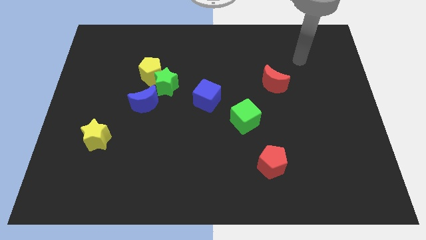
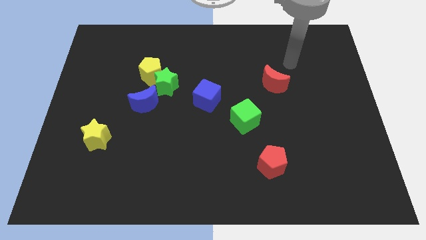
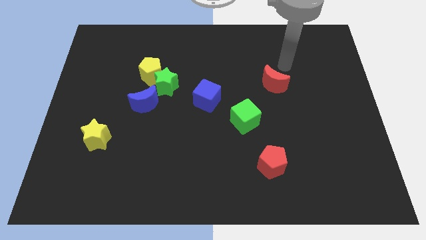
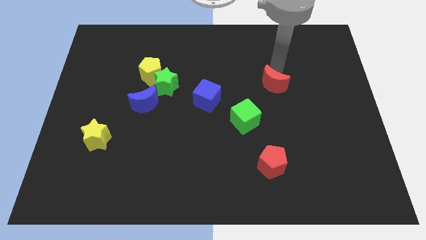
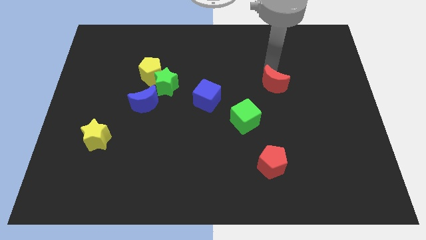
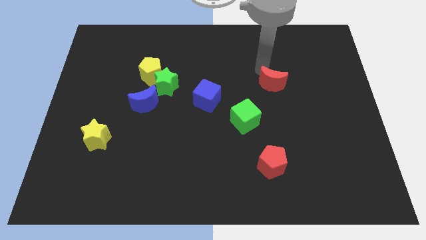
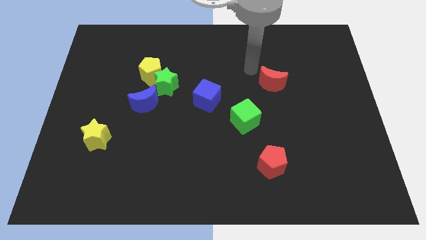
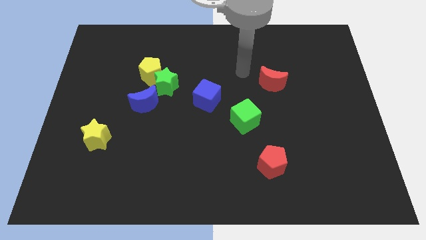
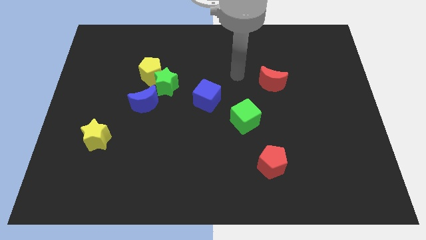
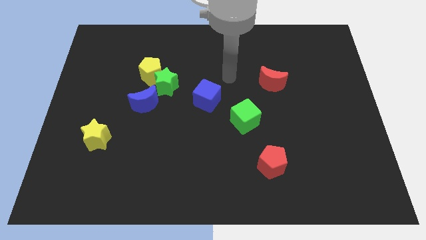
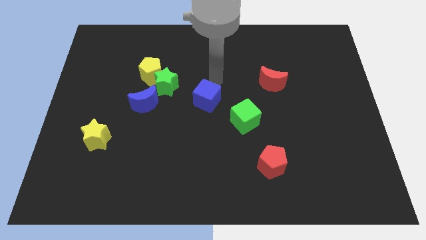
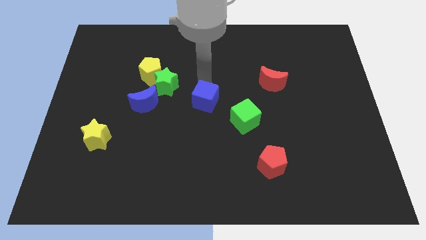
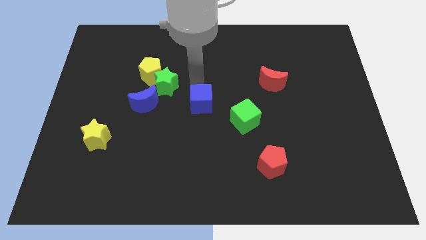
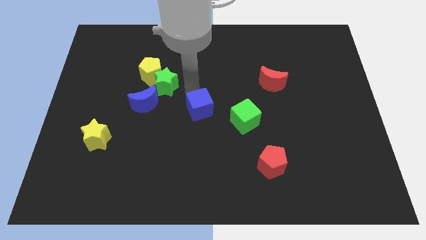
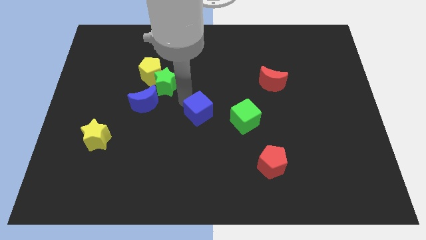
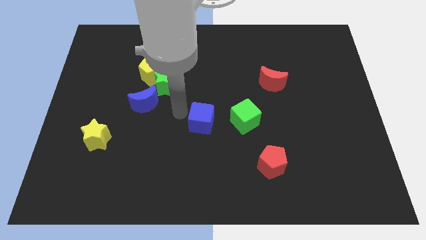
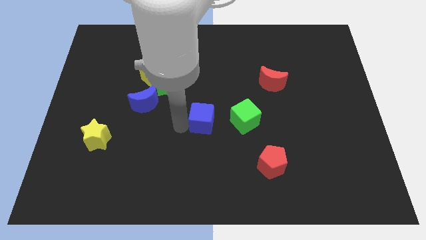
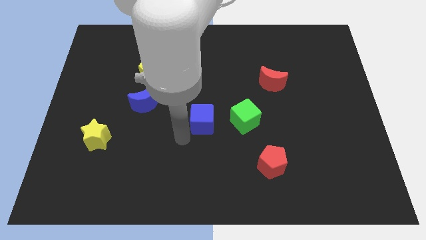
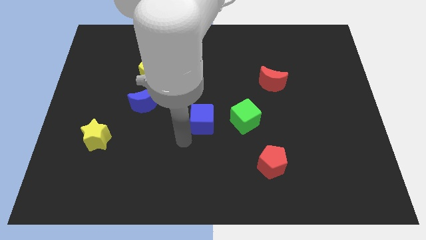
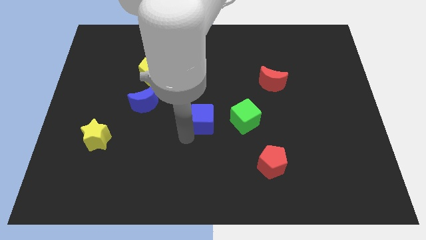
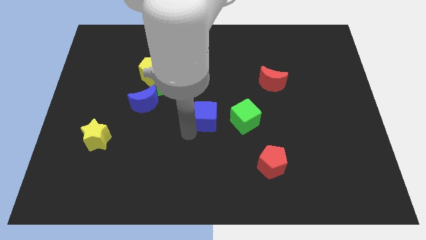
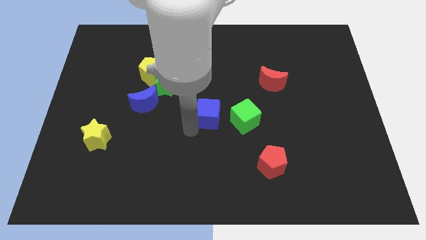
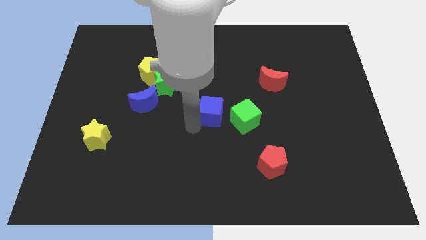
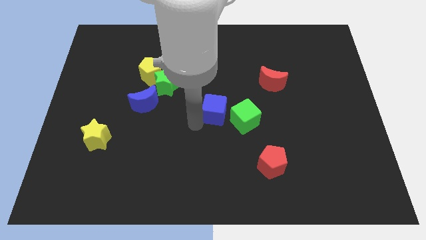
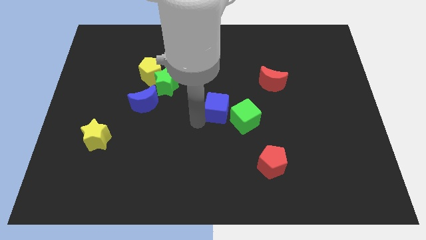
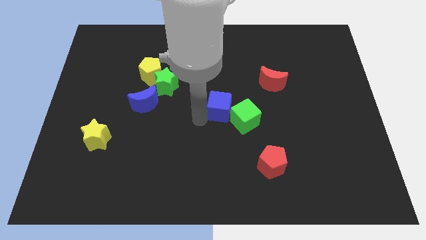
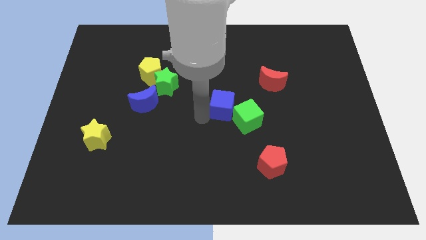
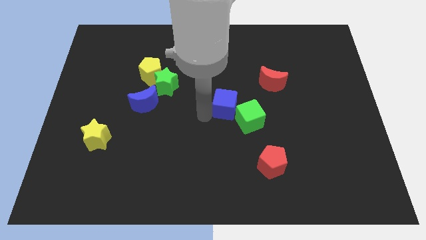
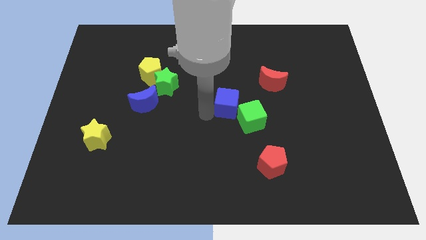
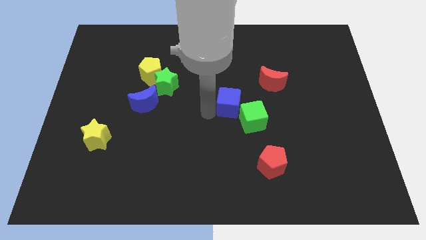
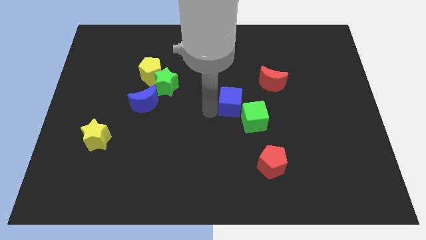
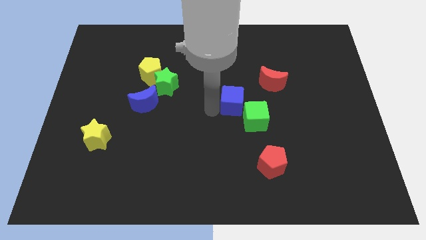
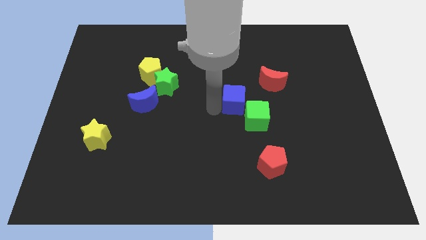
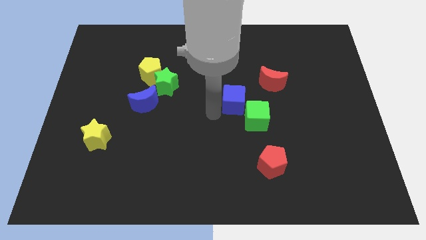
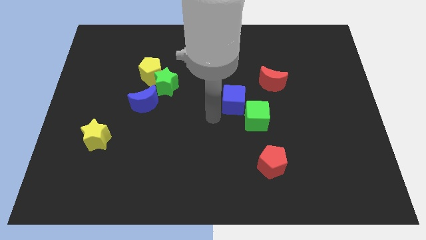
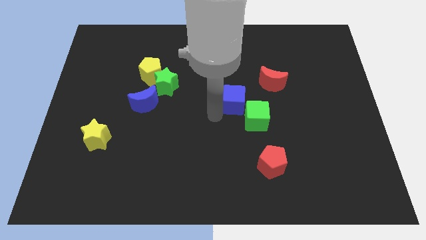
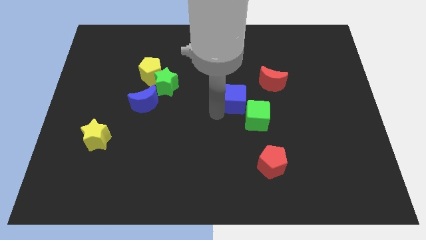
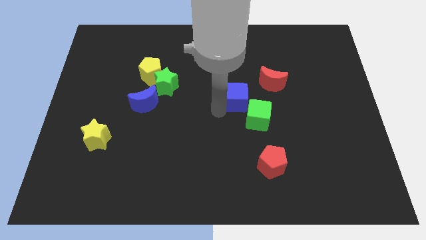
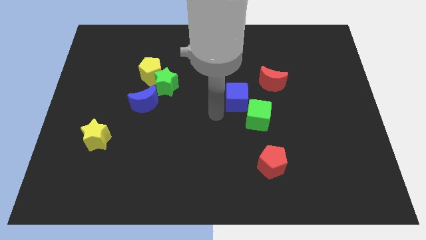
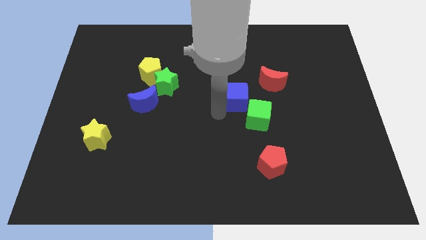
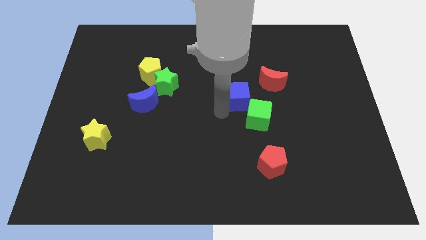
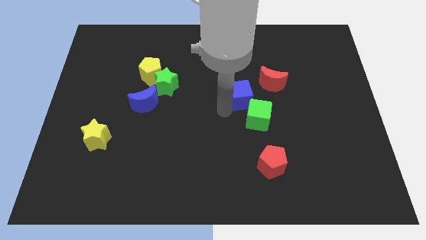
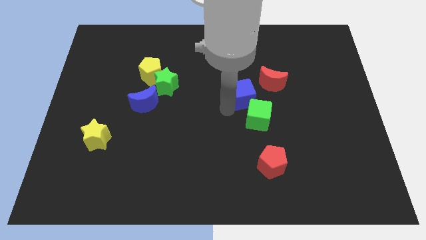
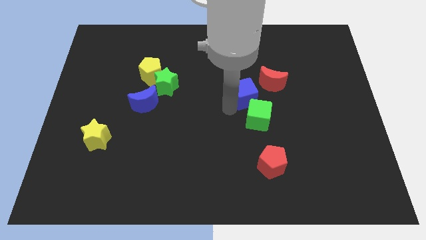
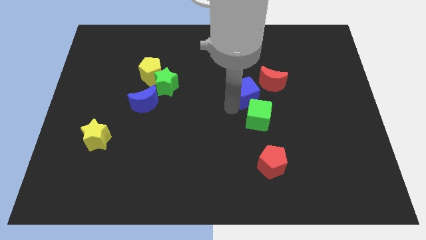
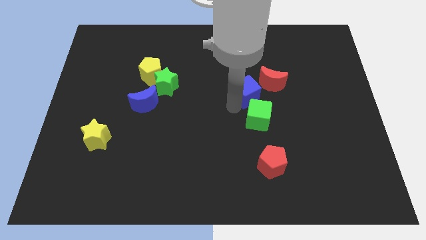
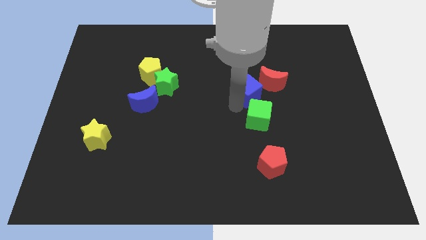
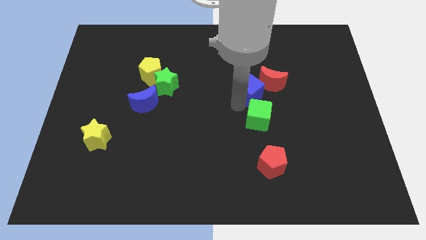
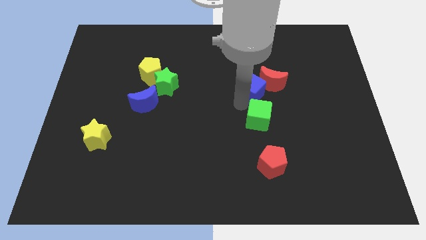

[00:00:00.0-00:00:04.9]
move the blue cube to the red moon

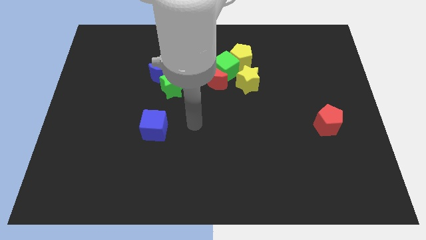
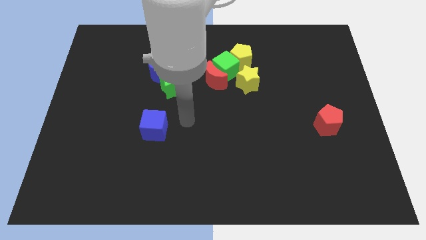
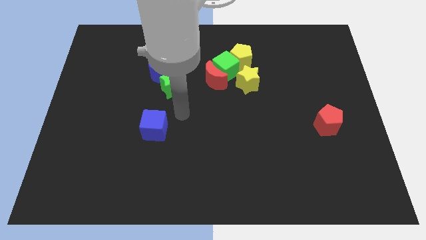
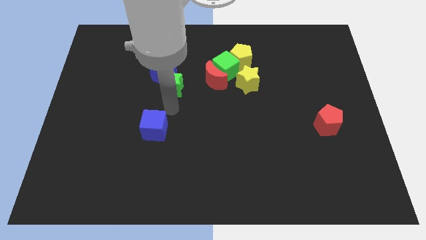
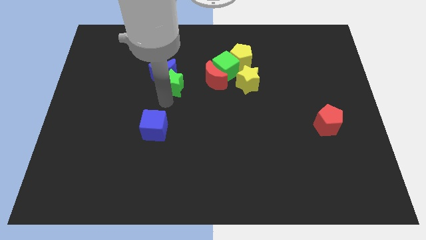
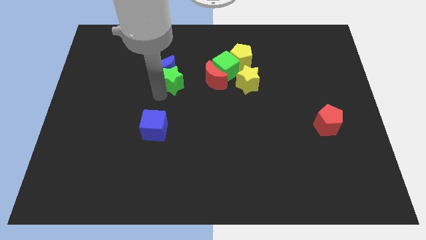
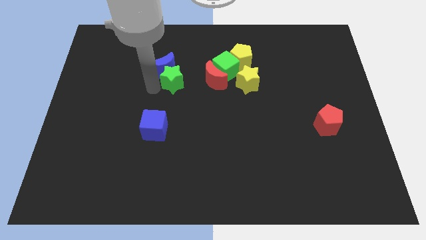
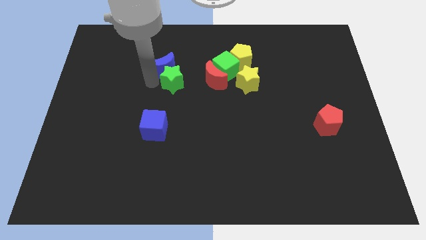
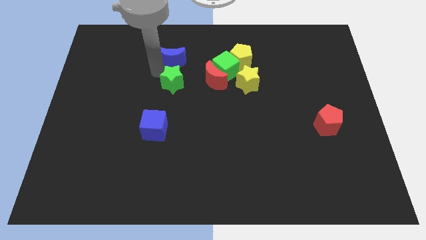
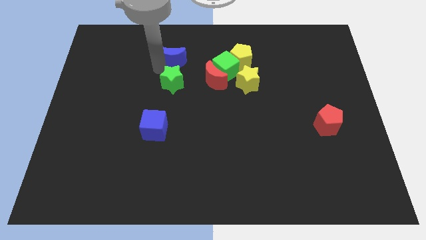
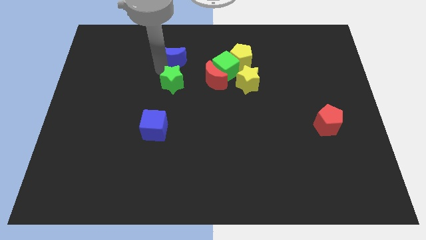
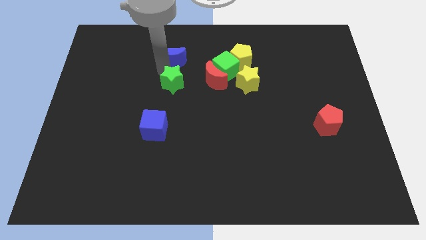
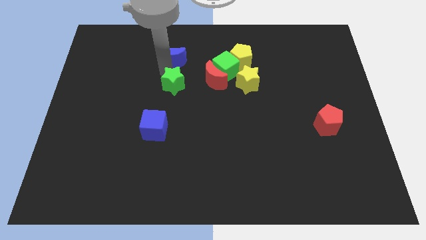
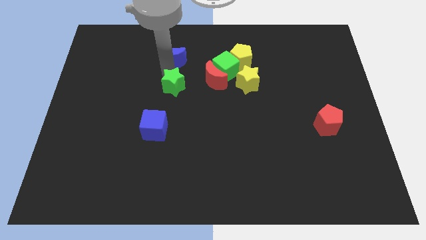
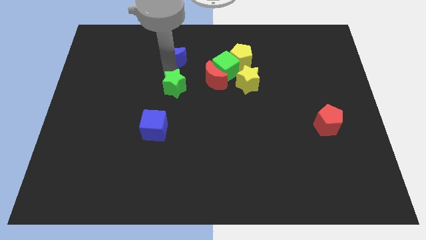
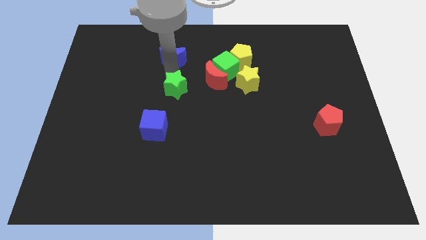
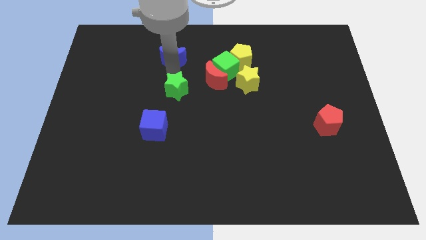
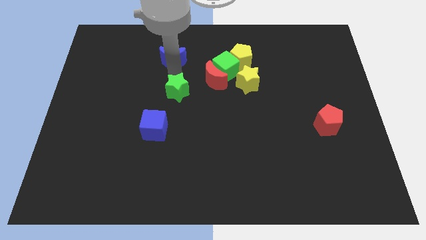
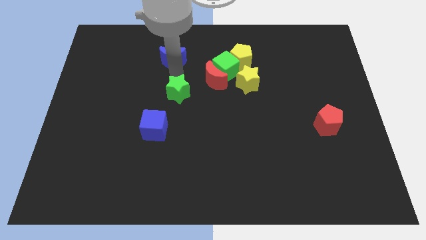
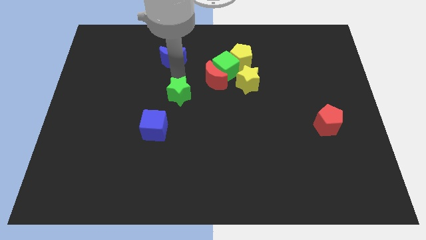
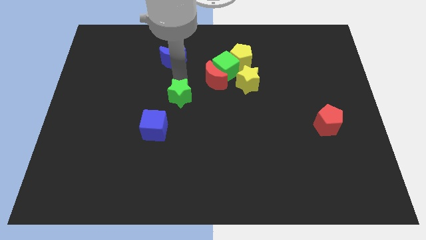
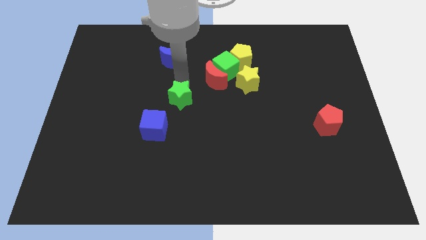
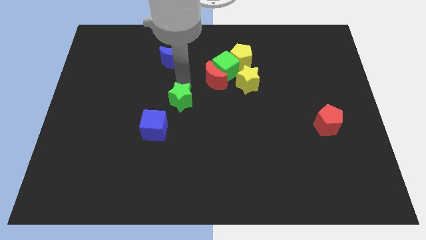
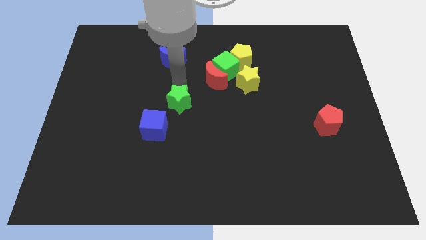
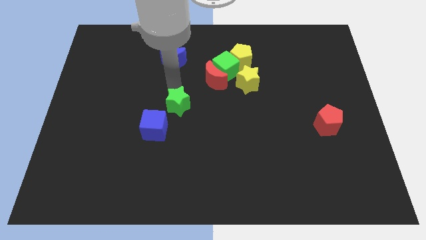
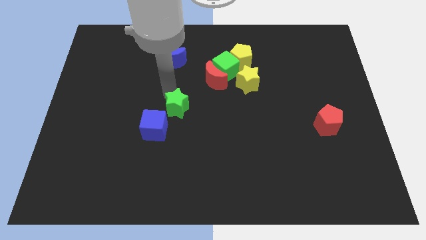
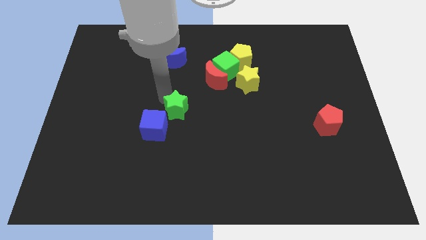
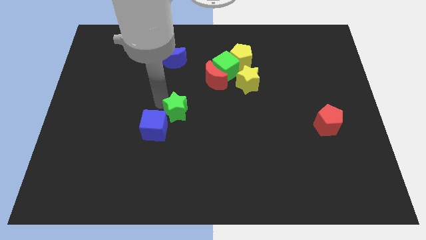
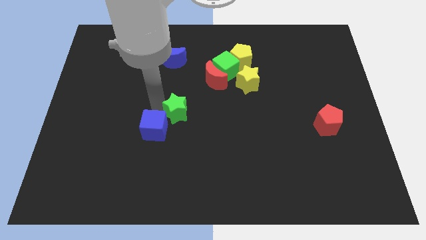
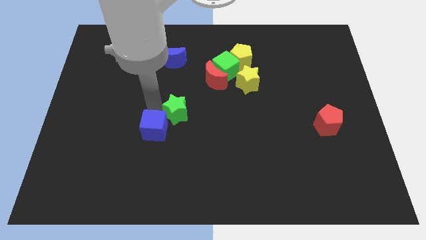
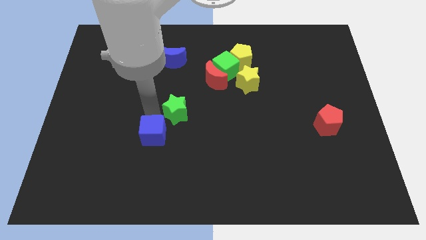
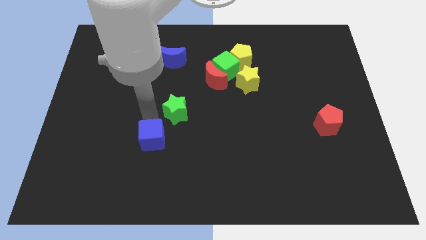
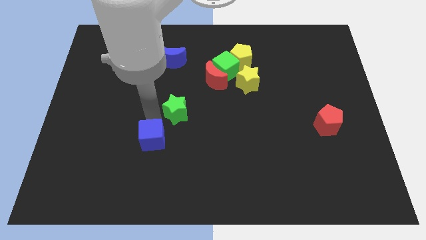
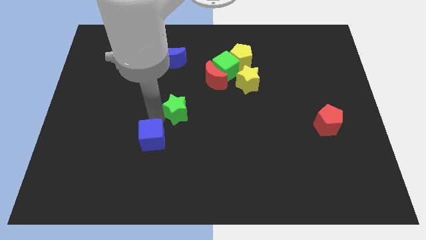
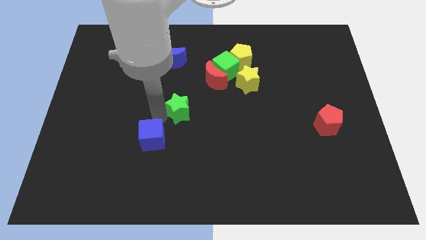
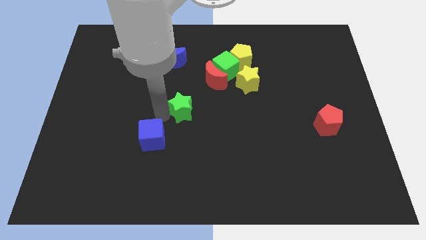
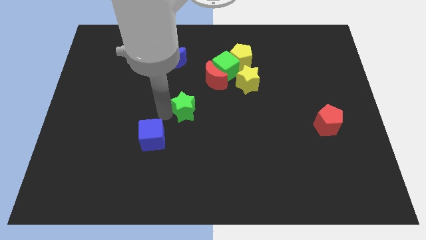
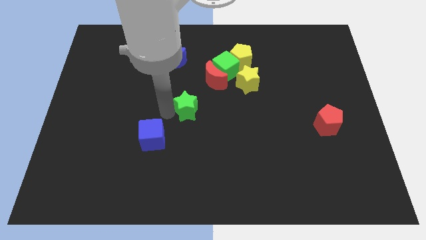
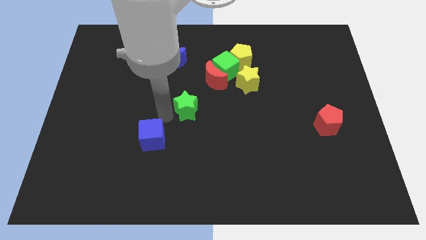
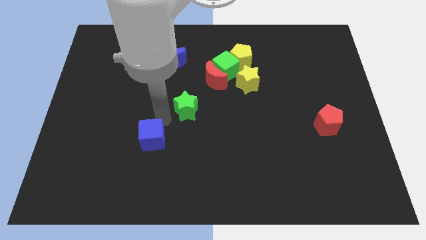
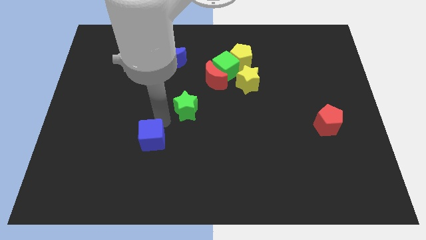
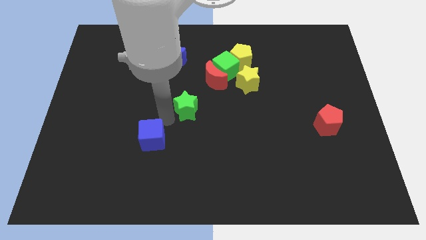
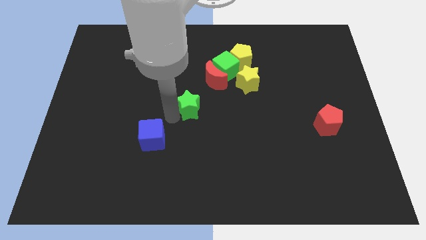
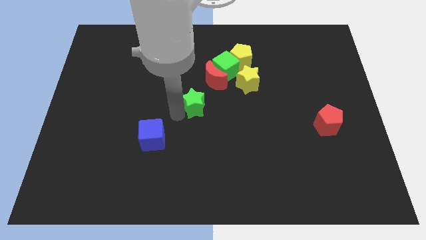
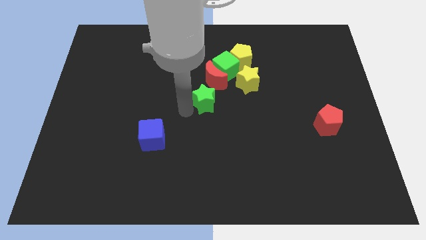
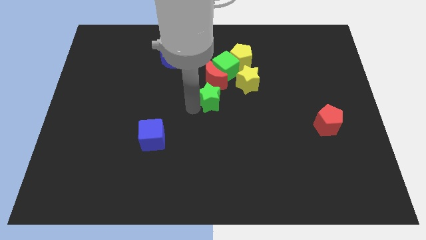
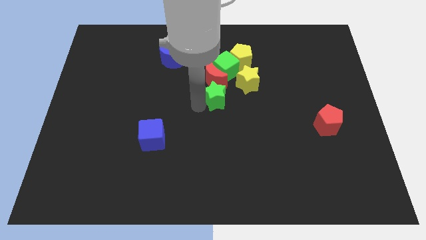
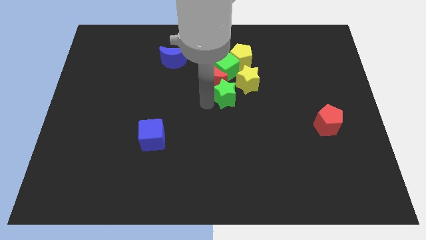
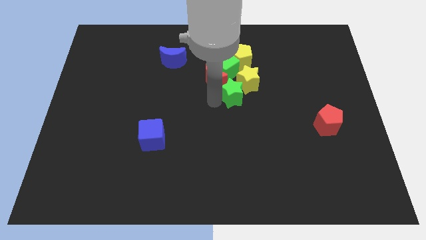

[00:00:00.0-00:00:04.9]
move the green star towards the yellow star
